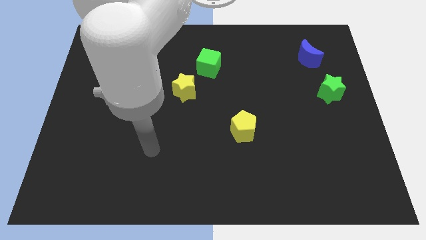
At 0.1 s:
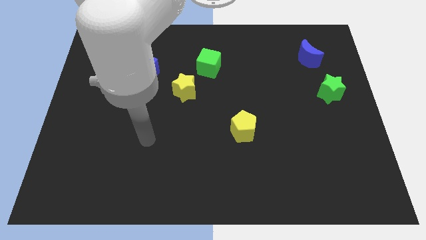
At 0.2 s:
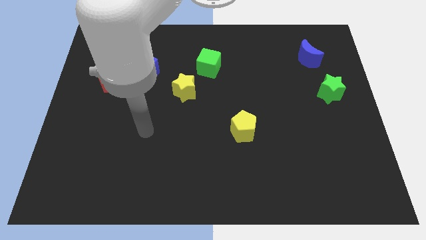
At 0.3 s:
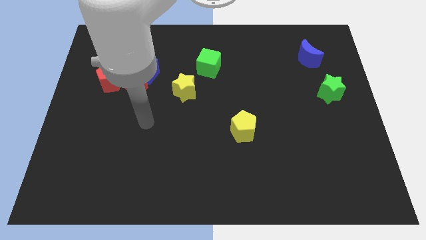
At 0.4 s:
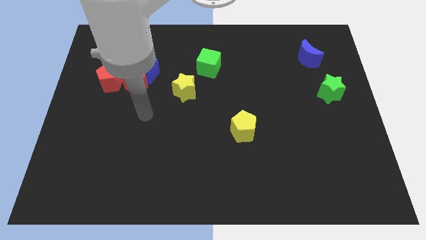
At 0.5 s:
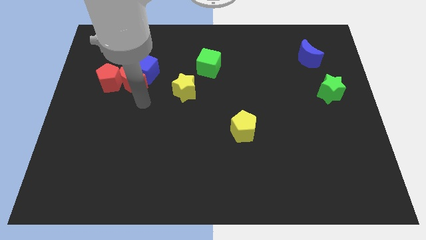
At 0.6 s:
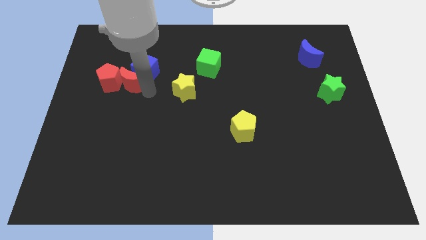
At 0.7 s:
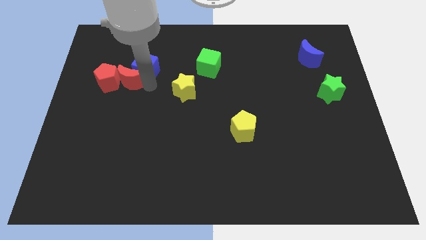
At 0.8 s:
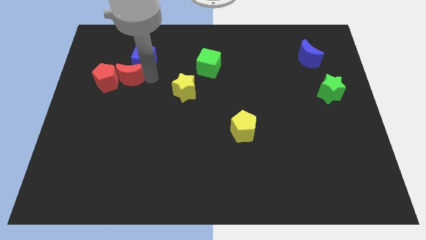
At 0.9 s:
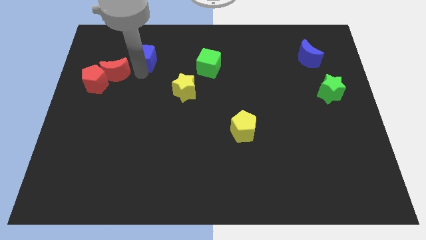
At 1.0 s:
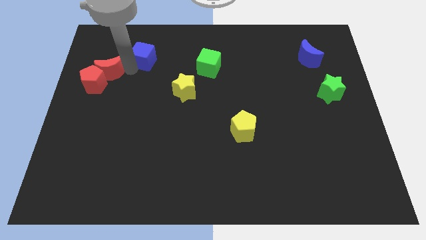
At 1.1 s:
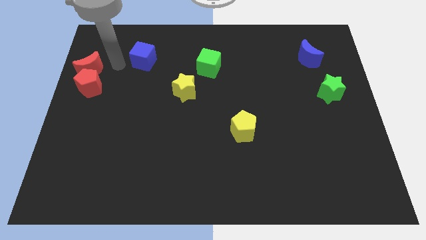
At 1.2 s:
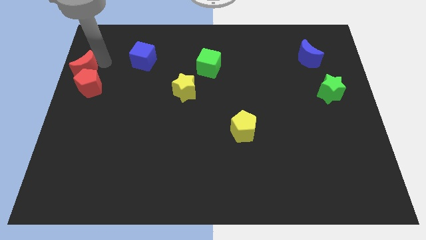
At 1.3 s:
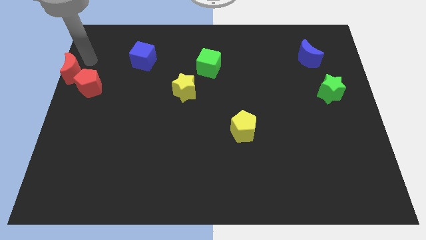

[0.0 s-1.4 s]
pull the red moon apart from the blue cube and red pentagon

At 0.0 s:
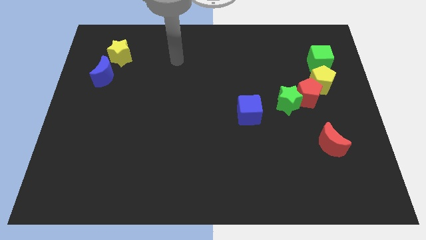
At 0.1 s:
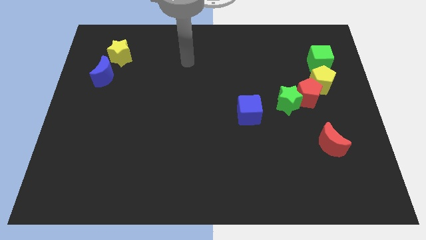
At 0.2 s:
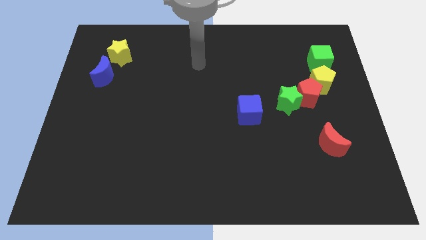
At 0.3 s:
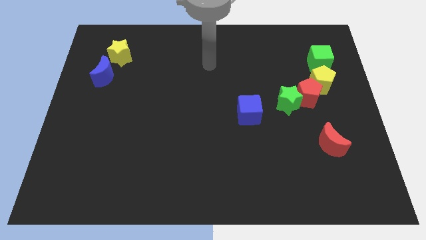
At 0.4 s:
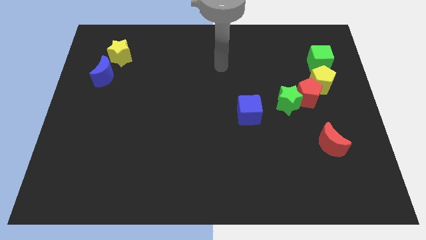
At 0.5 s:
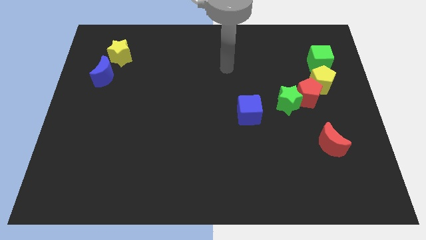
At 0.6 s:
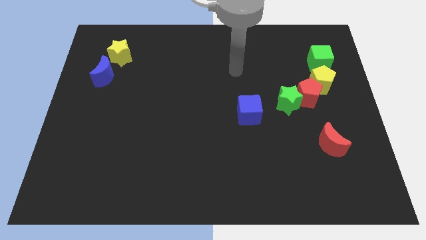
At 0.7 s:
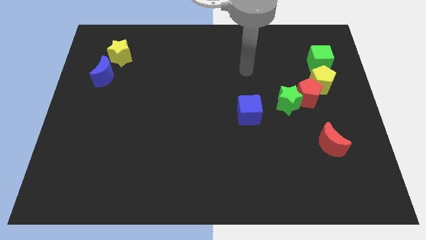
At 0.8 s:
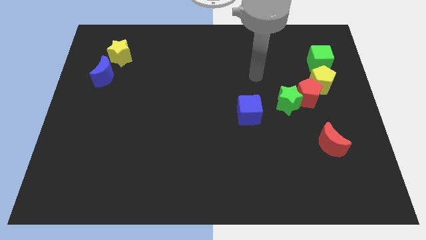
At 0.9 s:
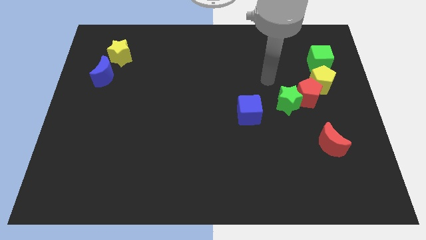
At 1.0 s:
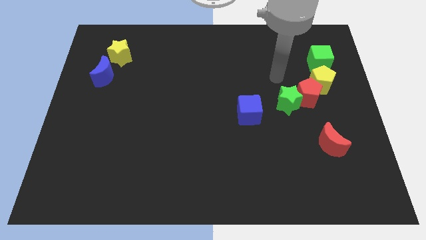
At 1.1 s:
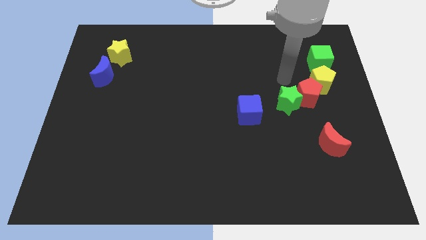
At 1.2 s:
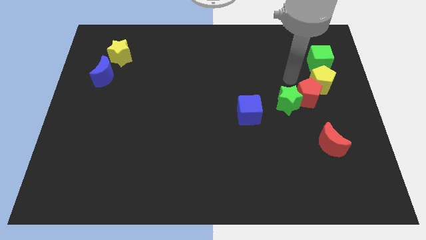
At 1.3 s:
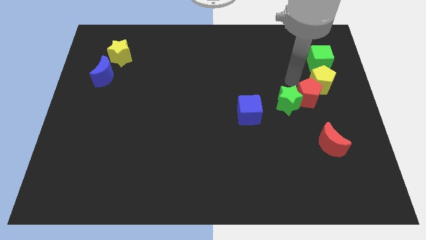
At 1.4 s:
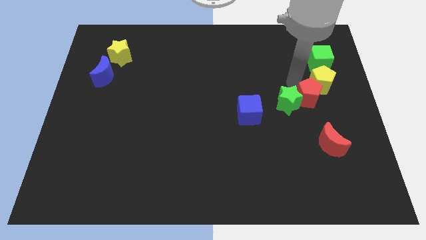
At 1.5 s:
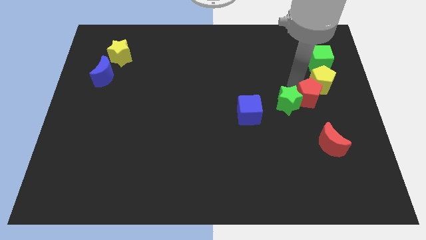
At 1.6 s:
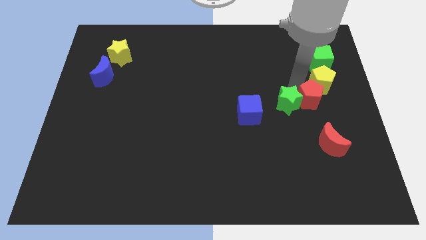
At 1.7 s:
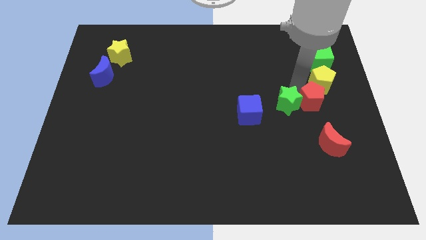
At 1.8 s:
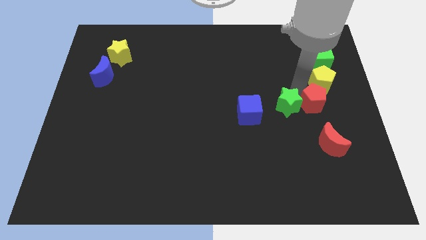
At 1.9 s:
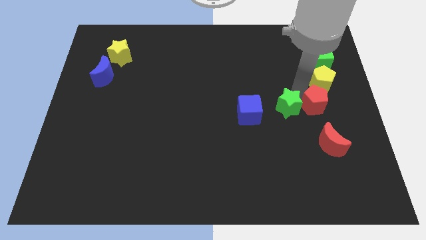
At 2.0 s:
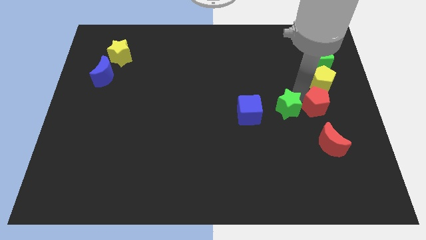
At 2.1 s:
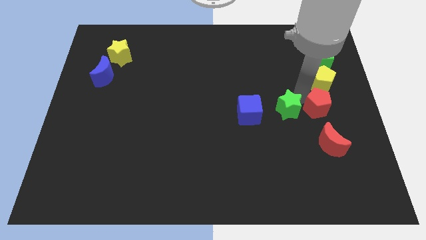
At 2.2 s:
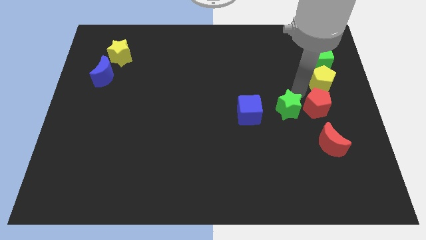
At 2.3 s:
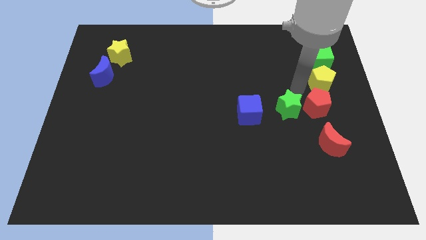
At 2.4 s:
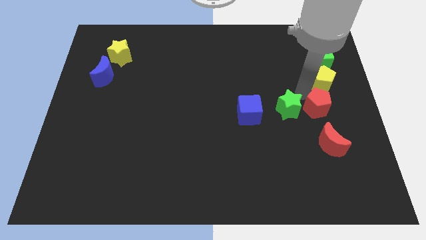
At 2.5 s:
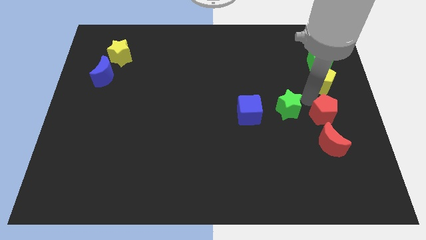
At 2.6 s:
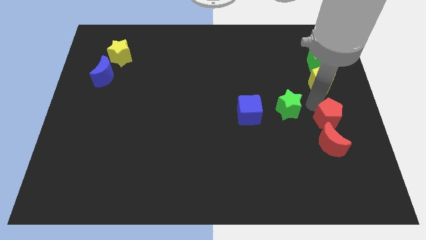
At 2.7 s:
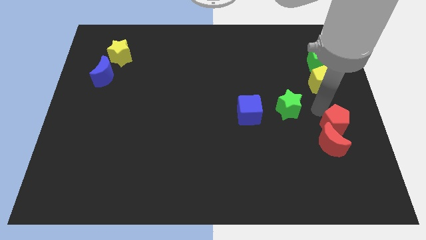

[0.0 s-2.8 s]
move the red pentagon away from the green star and yellow pentagon

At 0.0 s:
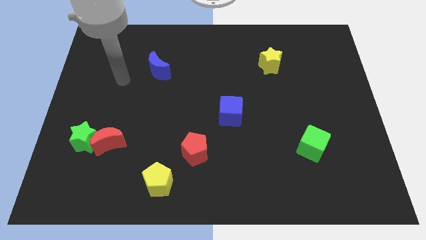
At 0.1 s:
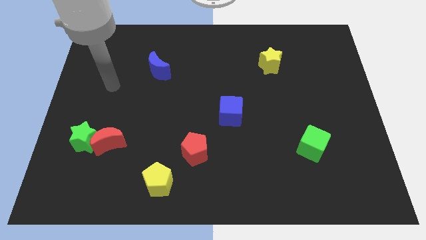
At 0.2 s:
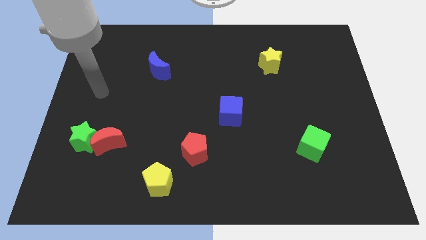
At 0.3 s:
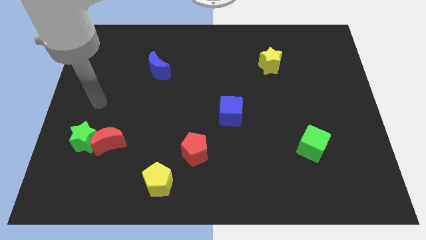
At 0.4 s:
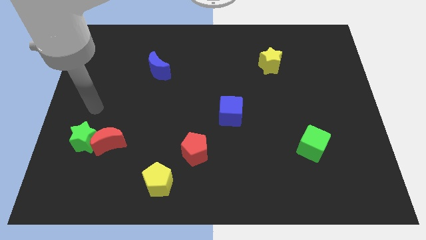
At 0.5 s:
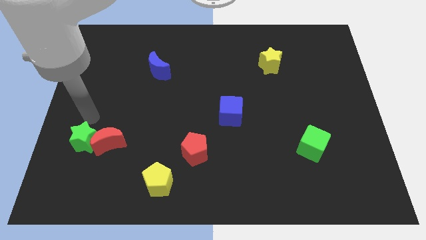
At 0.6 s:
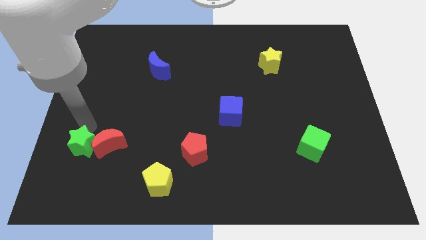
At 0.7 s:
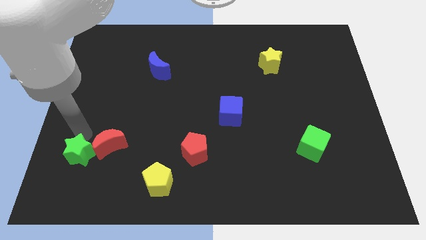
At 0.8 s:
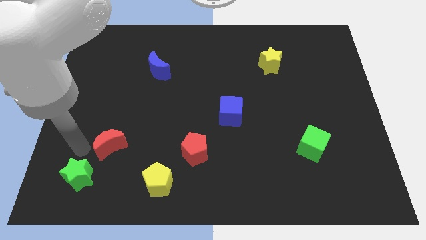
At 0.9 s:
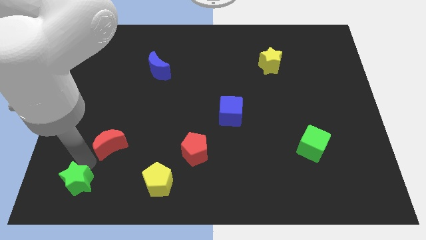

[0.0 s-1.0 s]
separate the red moon from the green star

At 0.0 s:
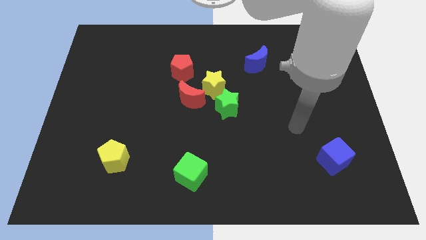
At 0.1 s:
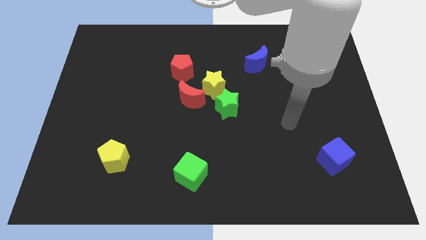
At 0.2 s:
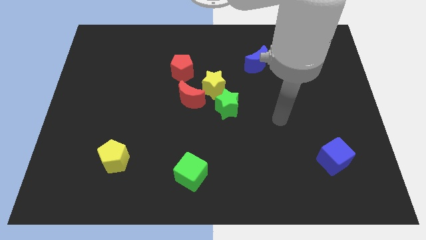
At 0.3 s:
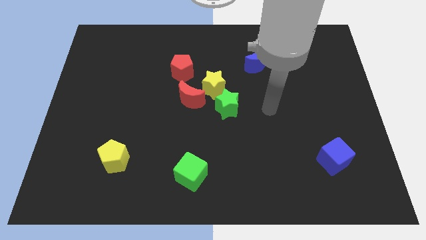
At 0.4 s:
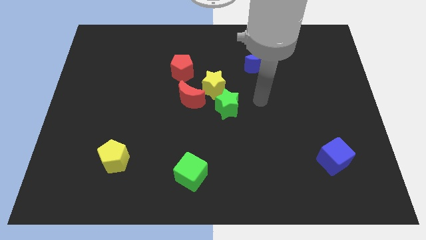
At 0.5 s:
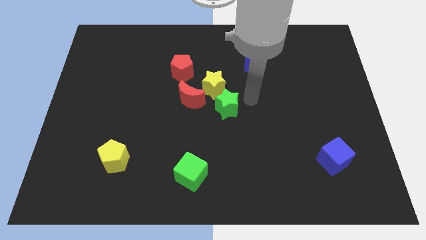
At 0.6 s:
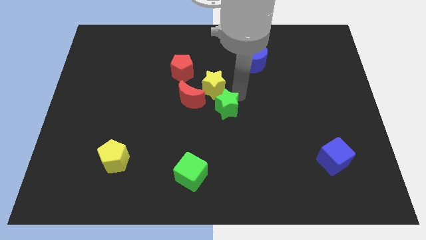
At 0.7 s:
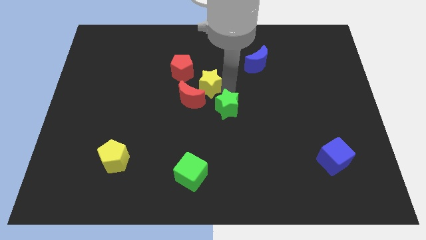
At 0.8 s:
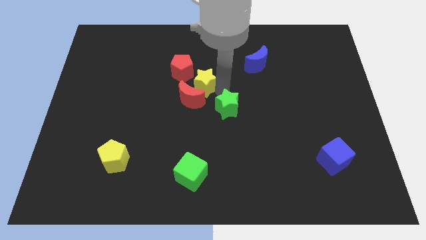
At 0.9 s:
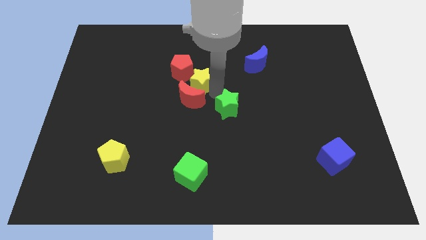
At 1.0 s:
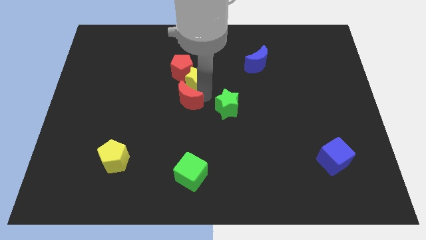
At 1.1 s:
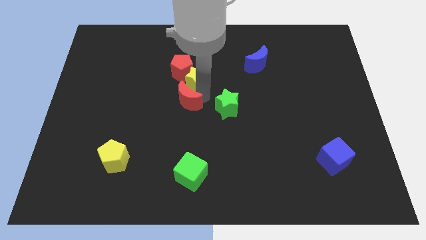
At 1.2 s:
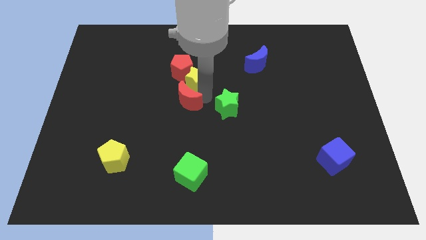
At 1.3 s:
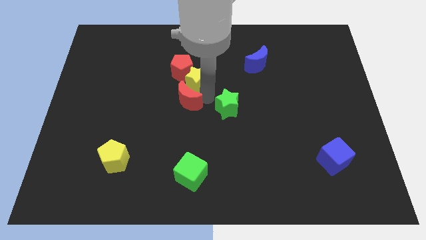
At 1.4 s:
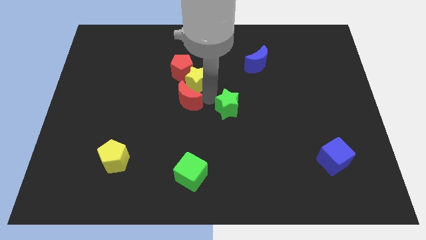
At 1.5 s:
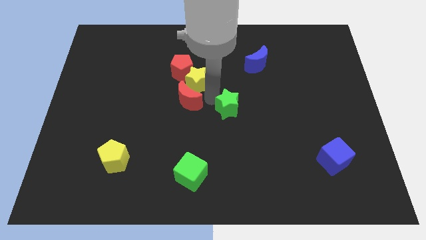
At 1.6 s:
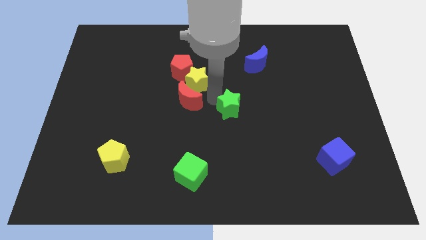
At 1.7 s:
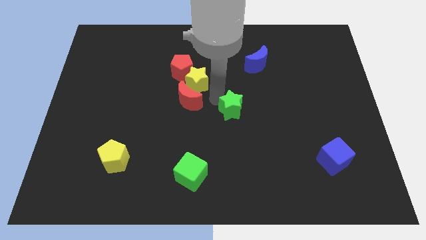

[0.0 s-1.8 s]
pull the green star apart from the yellow star and red moon

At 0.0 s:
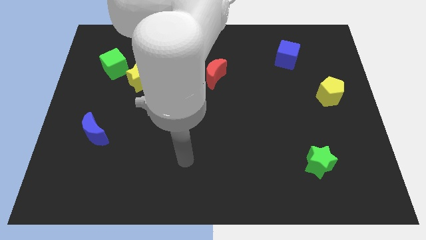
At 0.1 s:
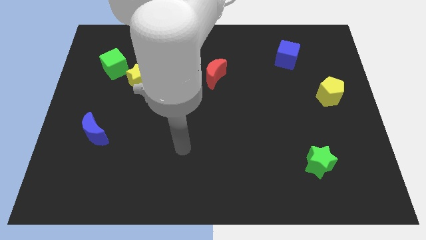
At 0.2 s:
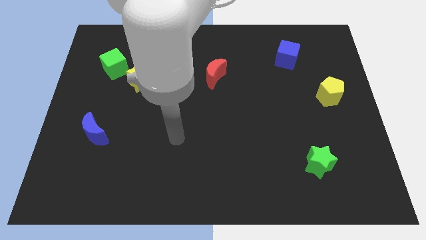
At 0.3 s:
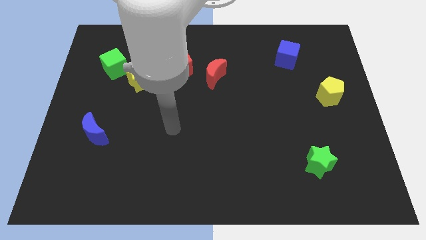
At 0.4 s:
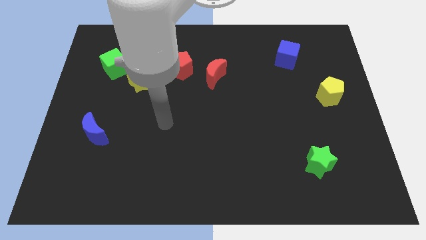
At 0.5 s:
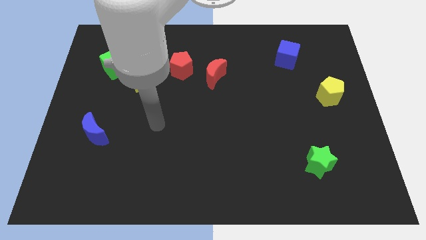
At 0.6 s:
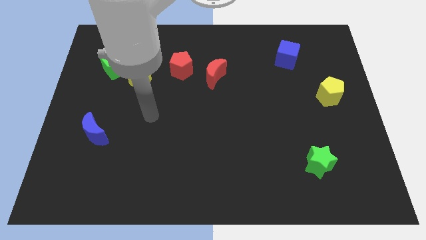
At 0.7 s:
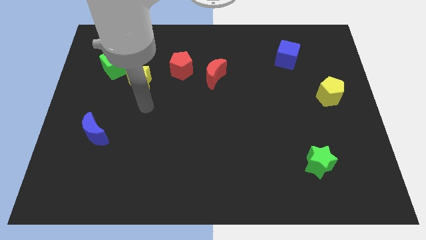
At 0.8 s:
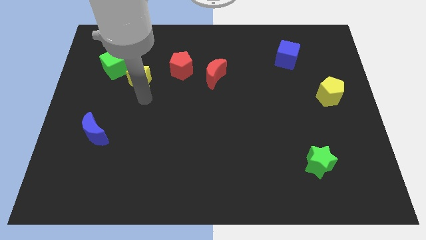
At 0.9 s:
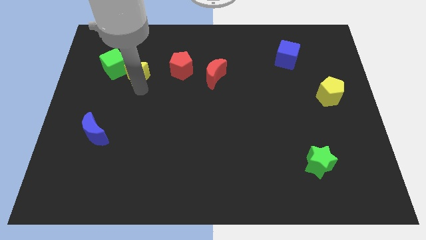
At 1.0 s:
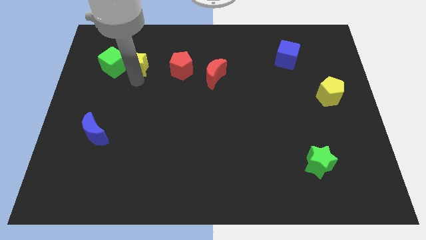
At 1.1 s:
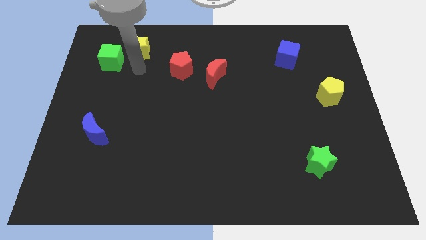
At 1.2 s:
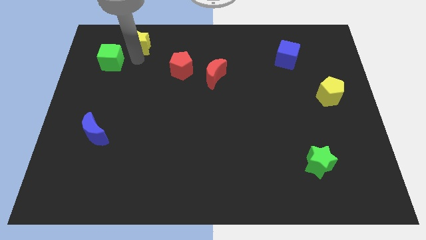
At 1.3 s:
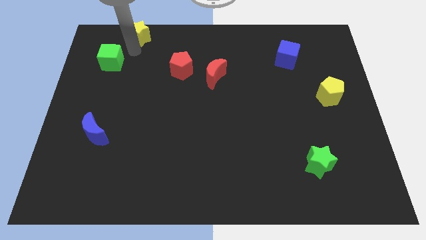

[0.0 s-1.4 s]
move the green cube away from the yellow star

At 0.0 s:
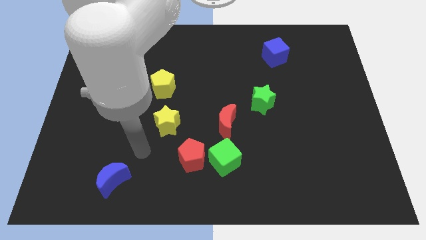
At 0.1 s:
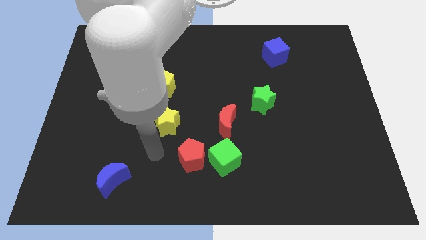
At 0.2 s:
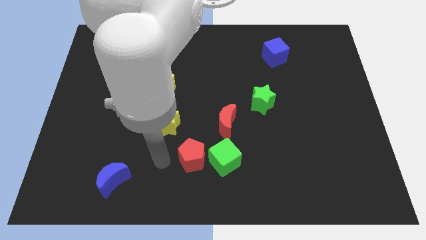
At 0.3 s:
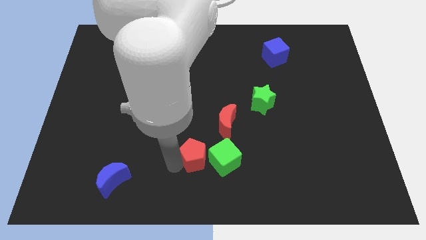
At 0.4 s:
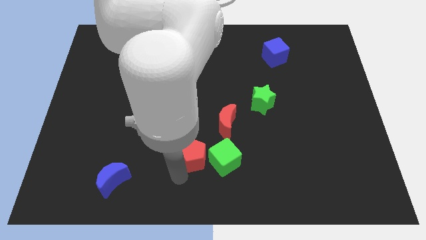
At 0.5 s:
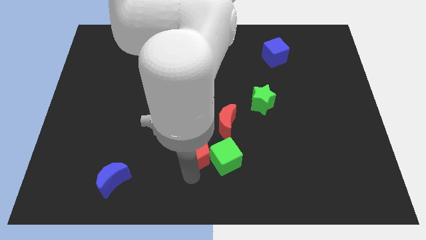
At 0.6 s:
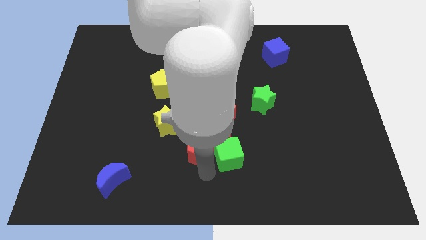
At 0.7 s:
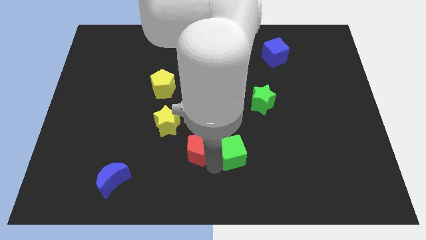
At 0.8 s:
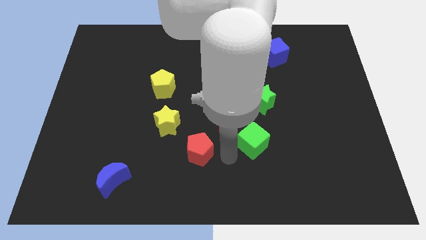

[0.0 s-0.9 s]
pull the red pentagon apart from the green cube
